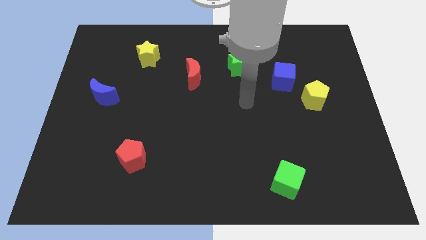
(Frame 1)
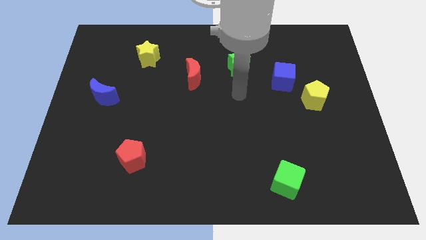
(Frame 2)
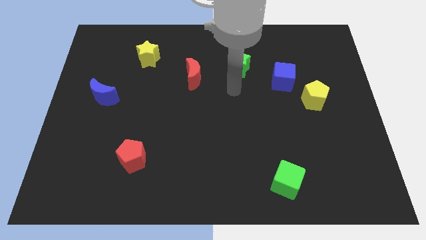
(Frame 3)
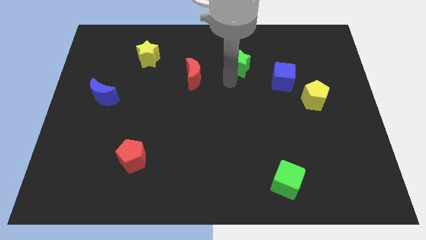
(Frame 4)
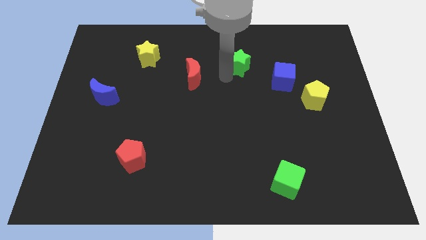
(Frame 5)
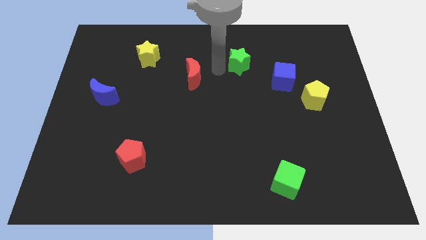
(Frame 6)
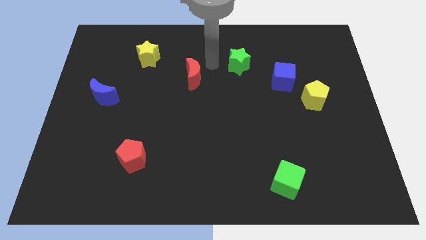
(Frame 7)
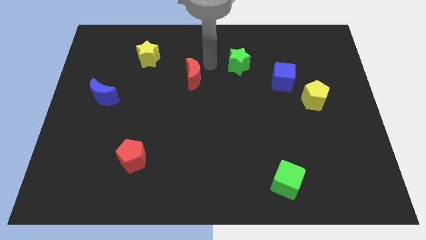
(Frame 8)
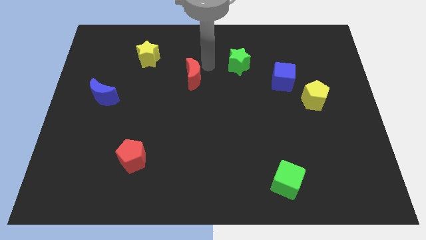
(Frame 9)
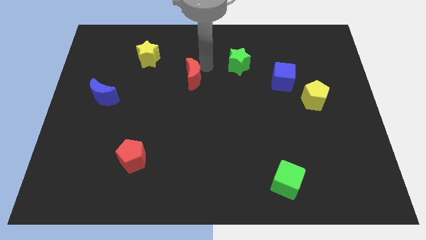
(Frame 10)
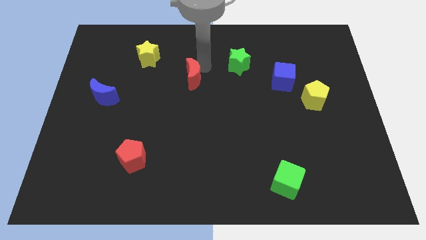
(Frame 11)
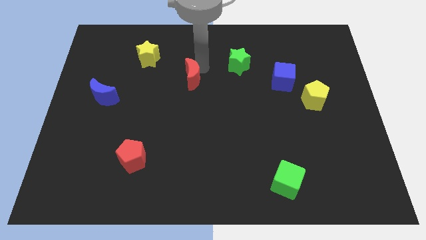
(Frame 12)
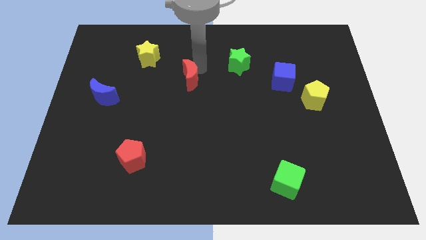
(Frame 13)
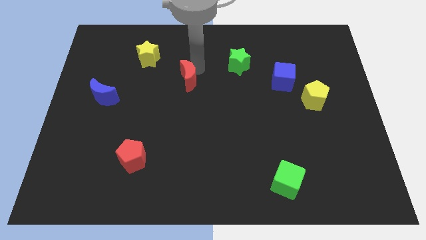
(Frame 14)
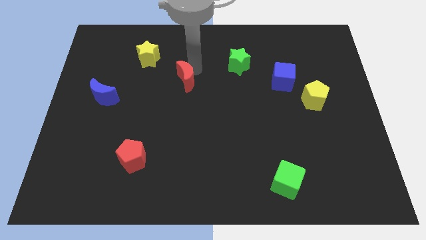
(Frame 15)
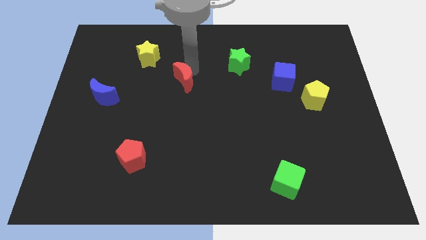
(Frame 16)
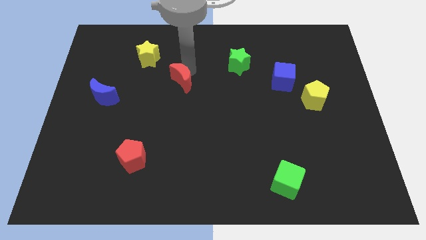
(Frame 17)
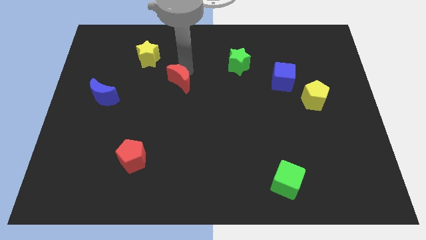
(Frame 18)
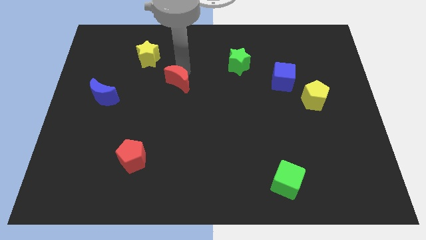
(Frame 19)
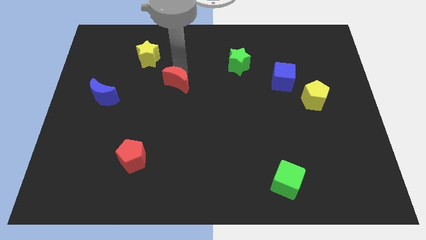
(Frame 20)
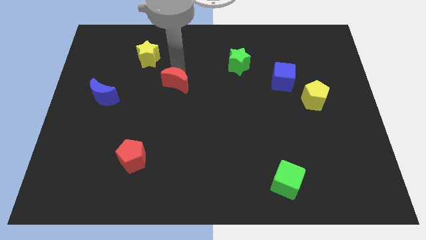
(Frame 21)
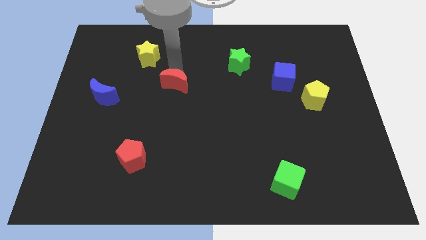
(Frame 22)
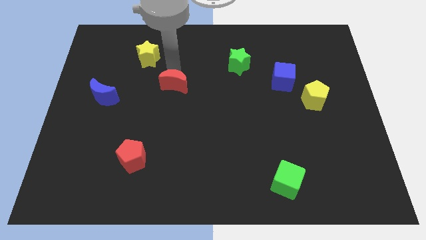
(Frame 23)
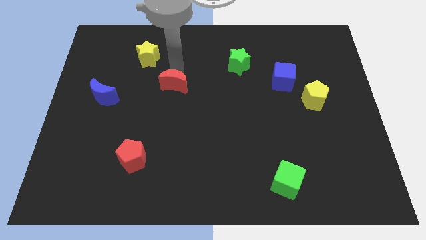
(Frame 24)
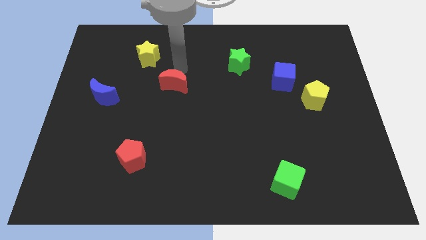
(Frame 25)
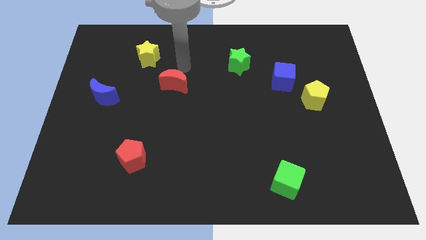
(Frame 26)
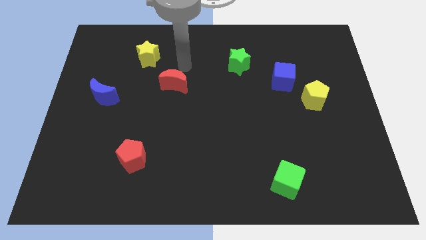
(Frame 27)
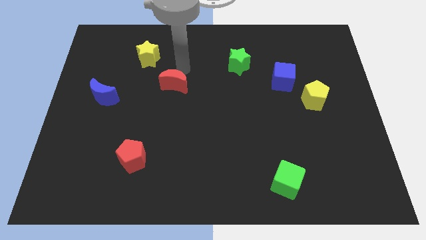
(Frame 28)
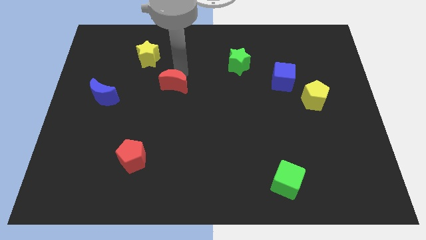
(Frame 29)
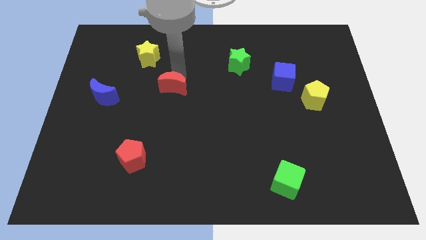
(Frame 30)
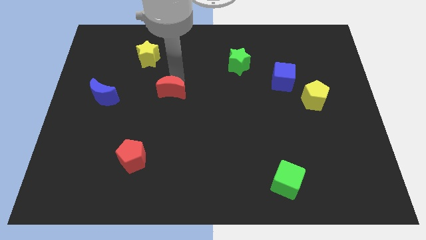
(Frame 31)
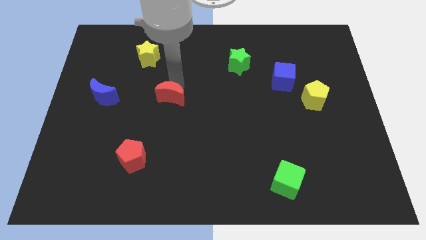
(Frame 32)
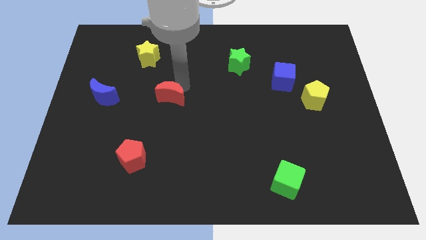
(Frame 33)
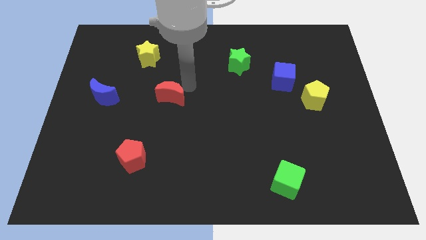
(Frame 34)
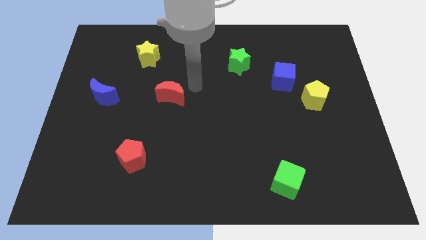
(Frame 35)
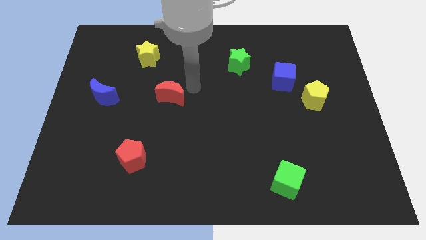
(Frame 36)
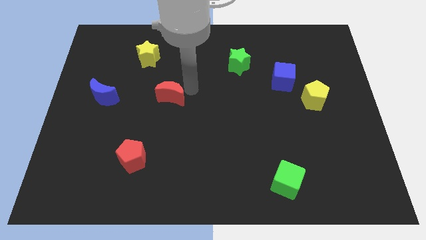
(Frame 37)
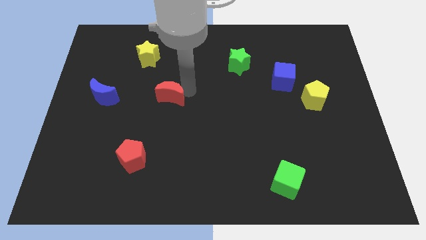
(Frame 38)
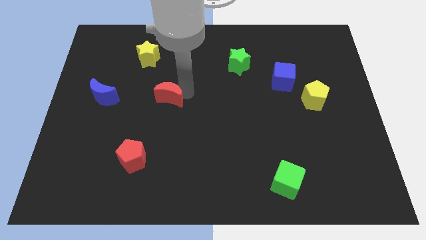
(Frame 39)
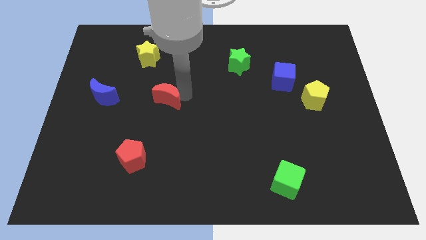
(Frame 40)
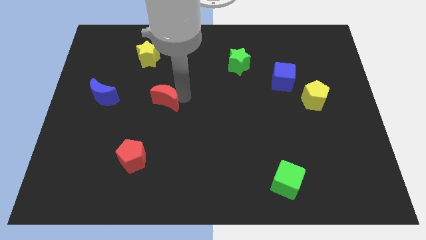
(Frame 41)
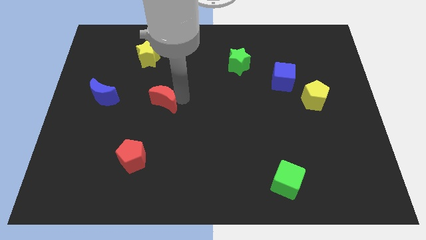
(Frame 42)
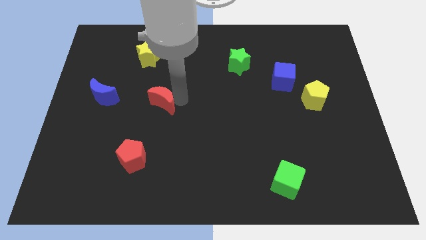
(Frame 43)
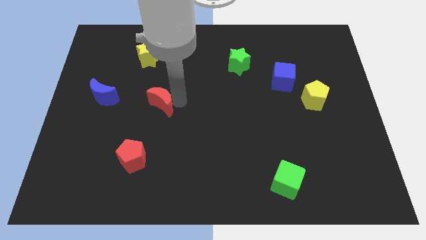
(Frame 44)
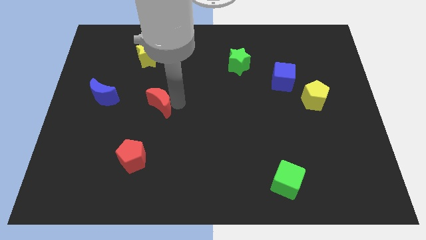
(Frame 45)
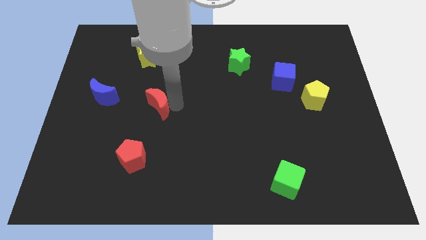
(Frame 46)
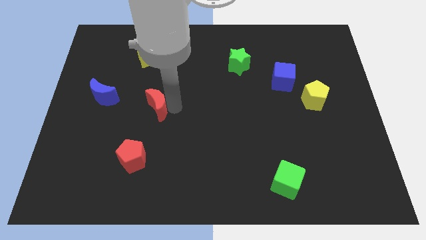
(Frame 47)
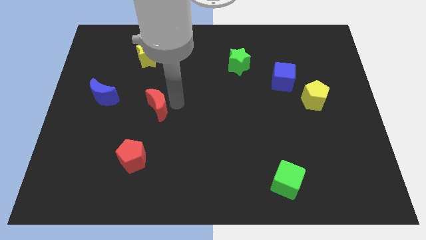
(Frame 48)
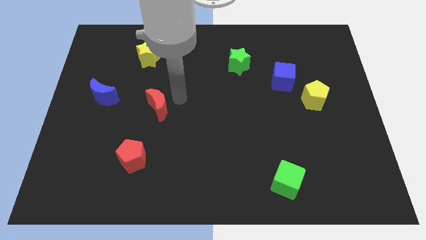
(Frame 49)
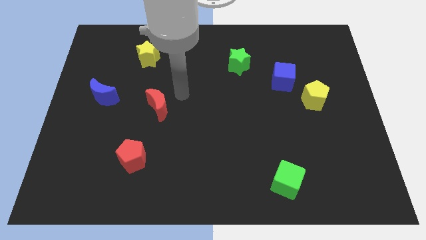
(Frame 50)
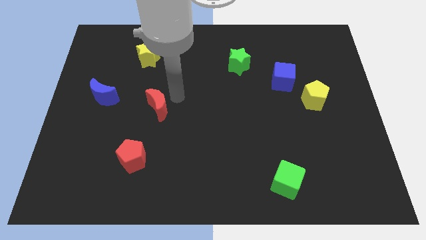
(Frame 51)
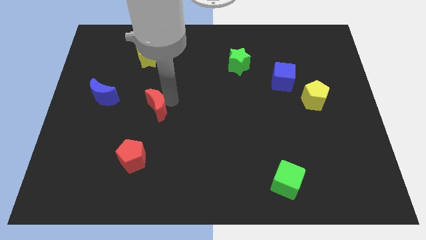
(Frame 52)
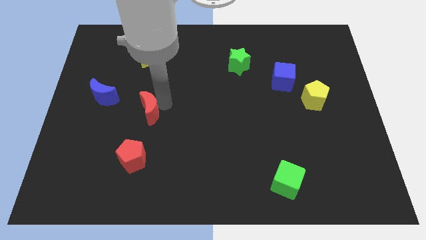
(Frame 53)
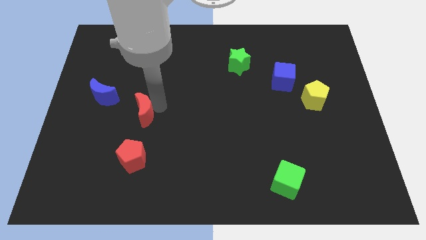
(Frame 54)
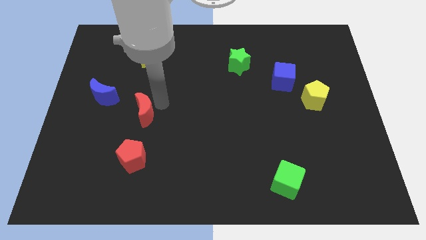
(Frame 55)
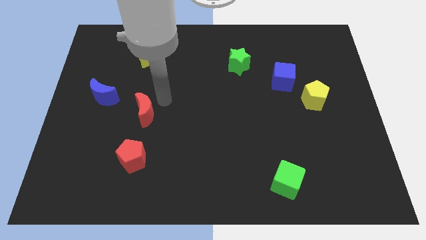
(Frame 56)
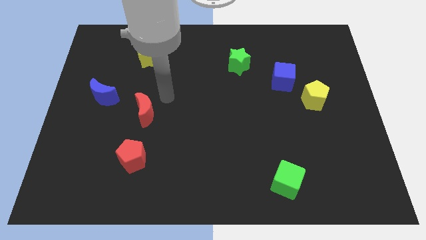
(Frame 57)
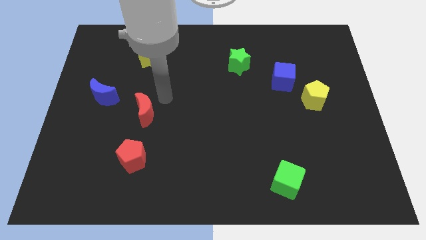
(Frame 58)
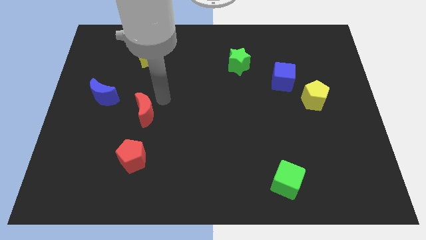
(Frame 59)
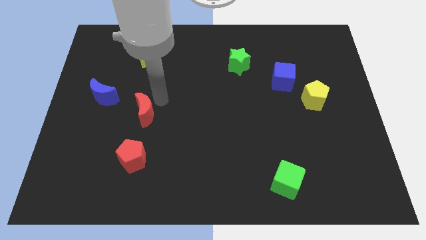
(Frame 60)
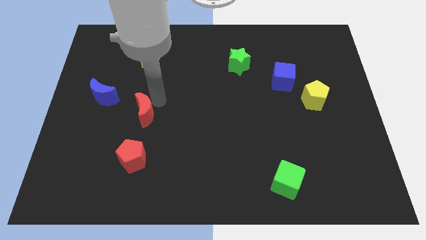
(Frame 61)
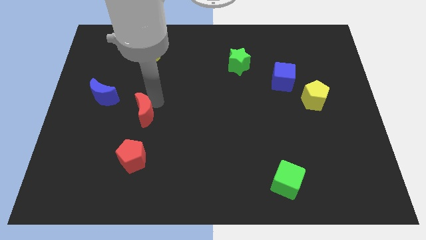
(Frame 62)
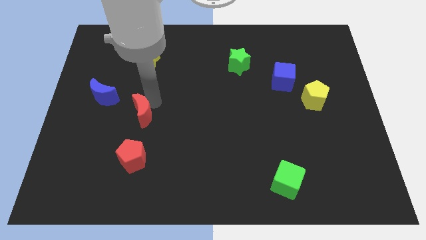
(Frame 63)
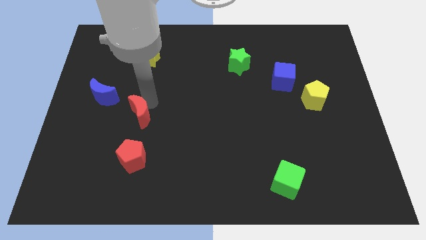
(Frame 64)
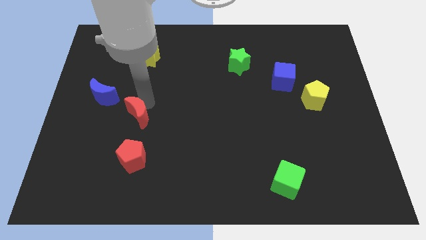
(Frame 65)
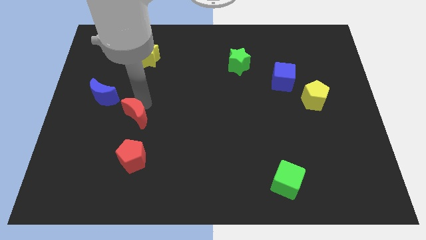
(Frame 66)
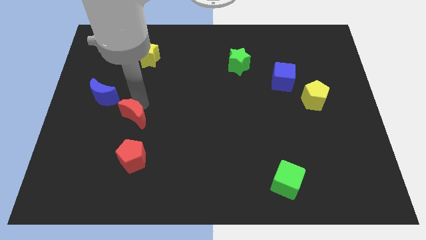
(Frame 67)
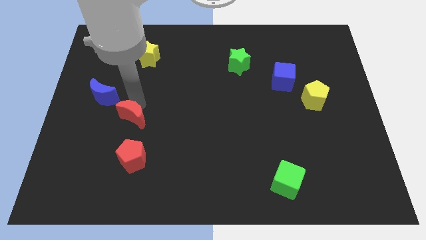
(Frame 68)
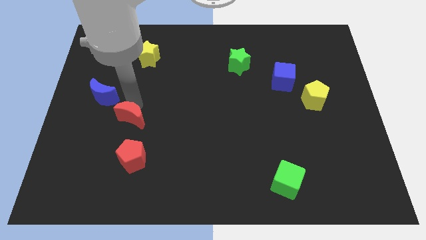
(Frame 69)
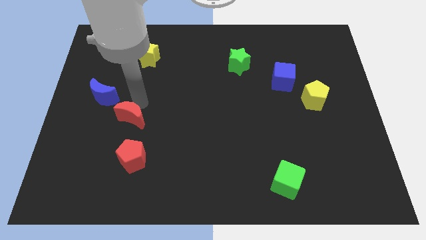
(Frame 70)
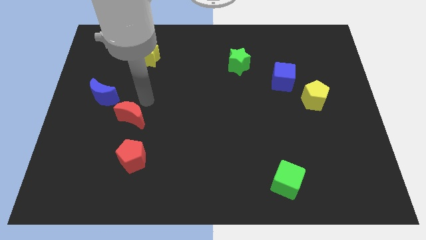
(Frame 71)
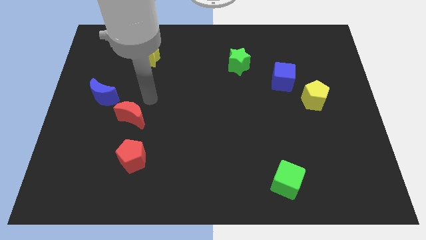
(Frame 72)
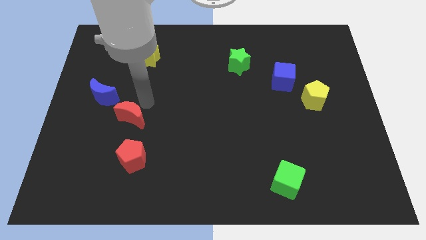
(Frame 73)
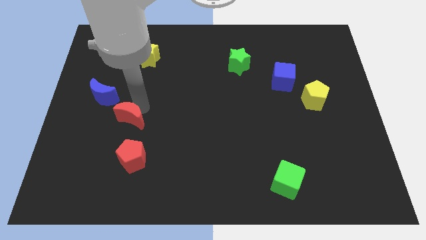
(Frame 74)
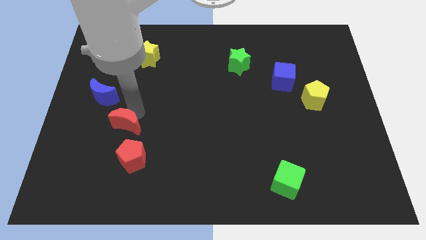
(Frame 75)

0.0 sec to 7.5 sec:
slide the red moon diagonally down and left

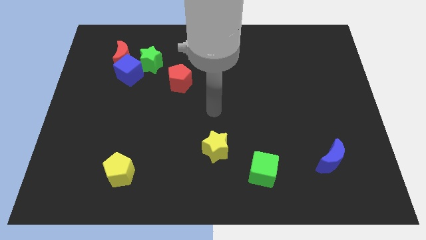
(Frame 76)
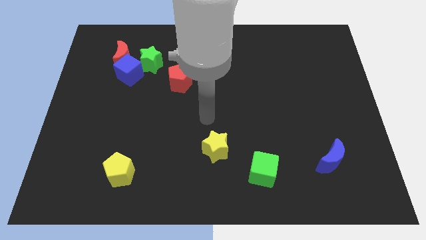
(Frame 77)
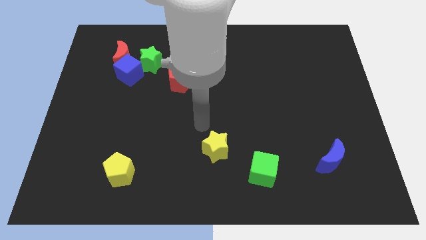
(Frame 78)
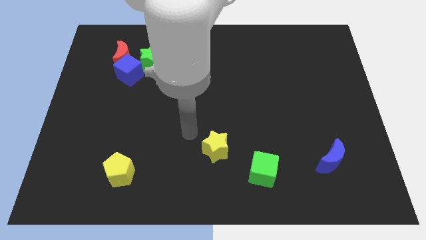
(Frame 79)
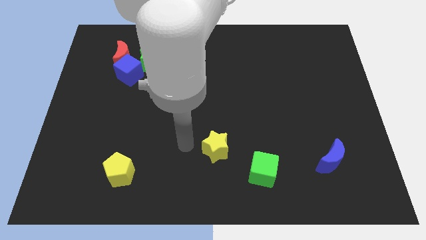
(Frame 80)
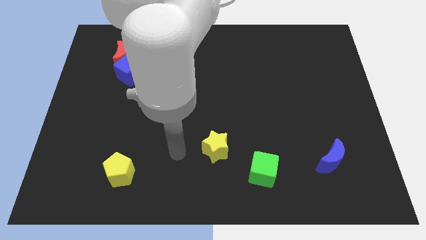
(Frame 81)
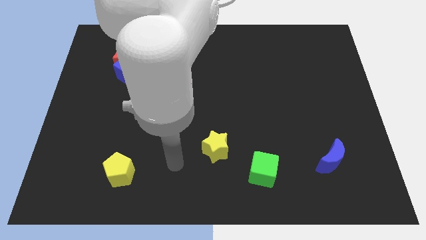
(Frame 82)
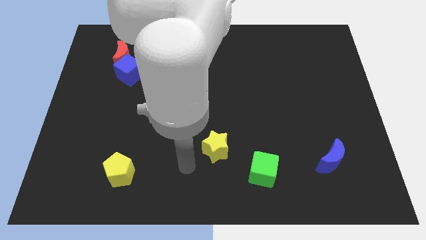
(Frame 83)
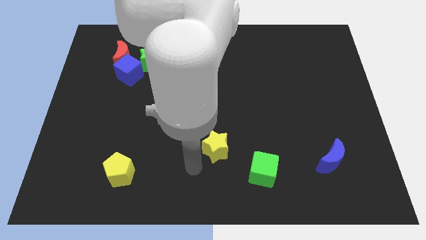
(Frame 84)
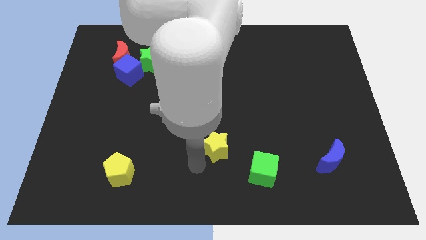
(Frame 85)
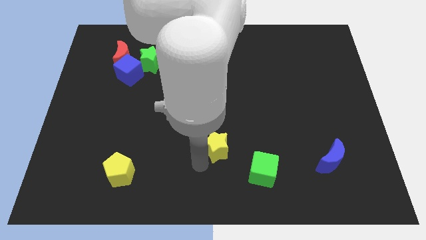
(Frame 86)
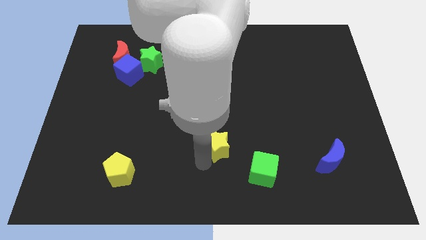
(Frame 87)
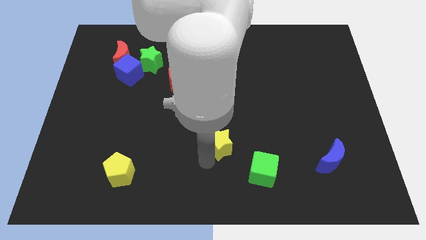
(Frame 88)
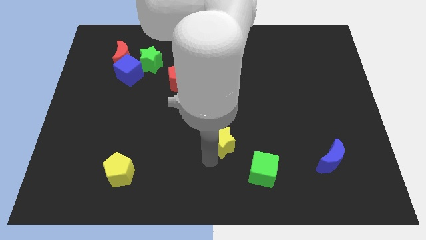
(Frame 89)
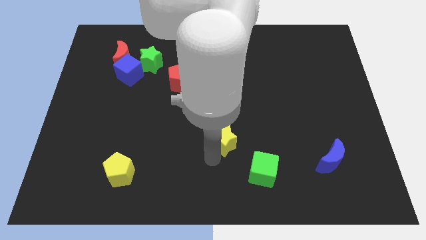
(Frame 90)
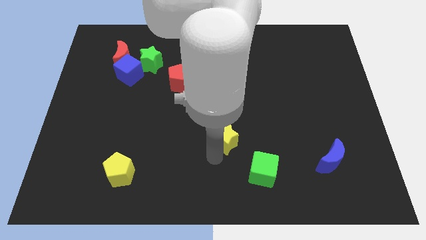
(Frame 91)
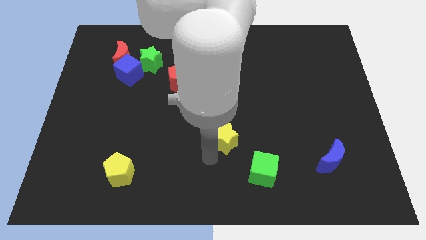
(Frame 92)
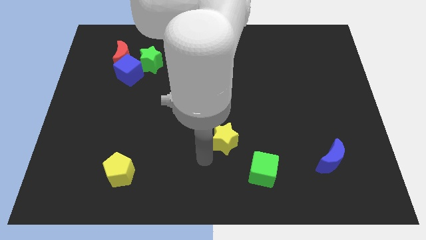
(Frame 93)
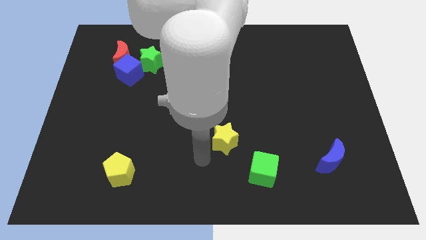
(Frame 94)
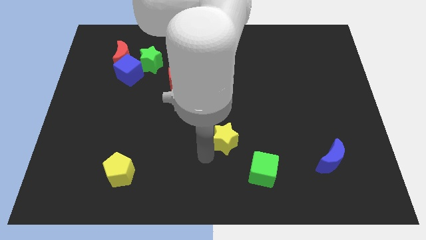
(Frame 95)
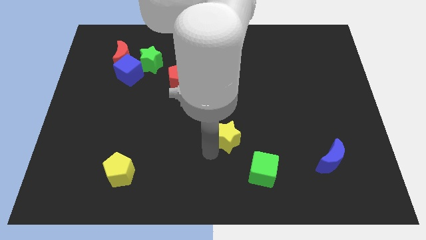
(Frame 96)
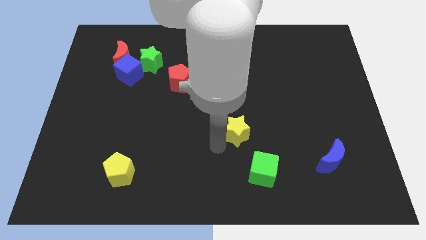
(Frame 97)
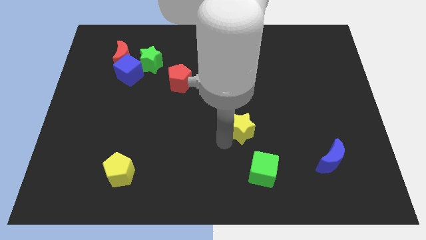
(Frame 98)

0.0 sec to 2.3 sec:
slightly move the yellow star up and to the right diagonally
